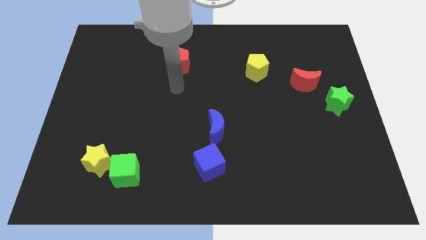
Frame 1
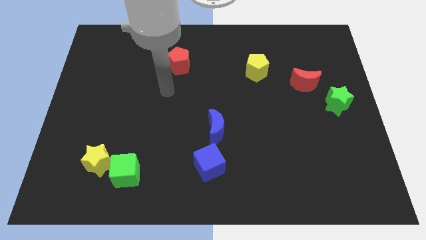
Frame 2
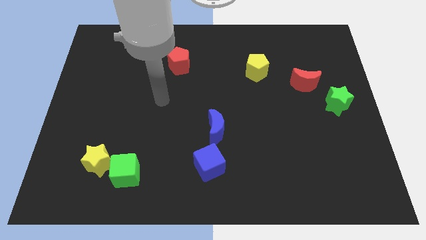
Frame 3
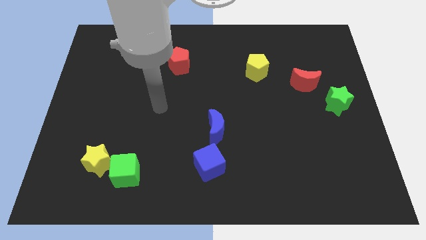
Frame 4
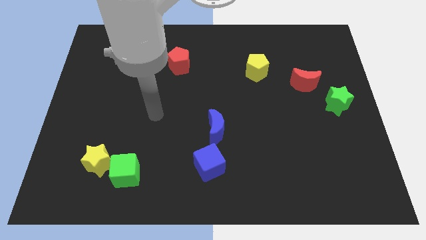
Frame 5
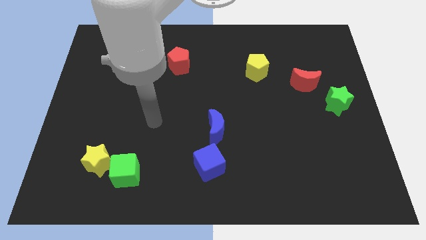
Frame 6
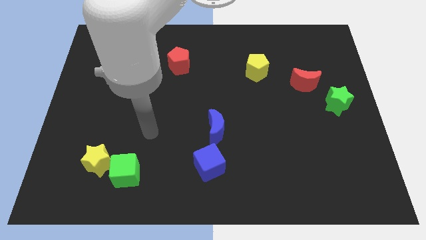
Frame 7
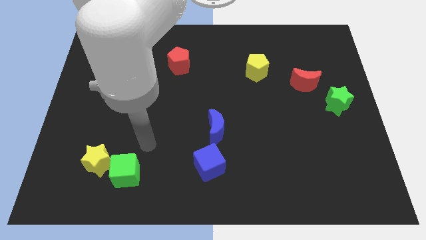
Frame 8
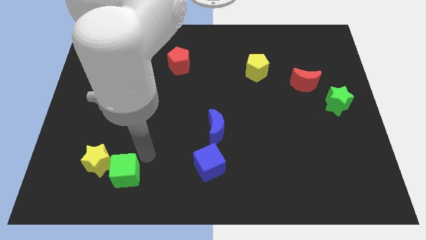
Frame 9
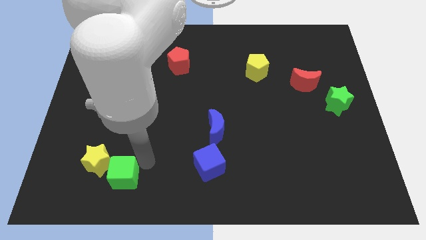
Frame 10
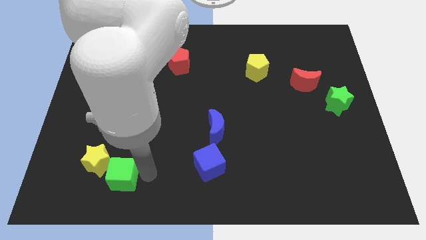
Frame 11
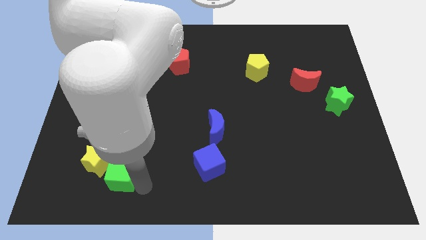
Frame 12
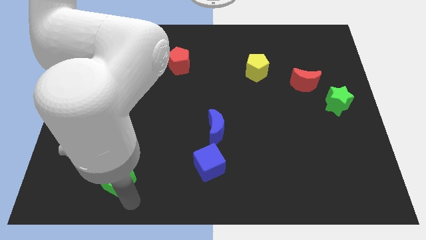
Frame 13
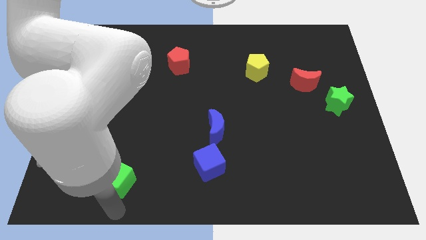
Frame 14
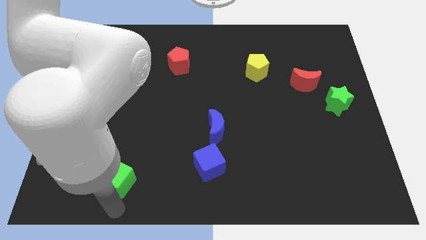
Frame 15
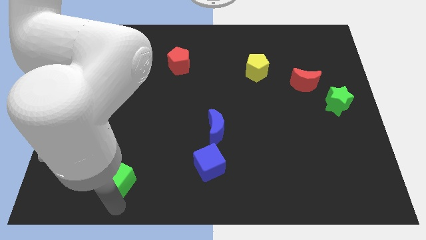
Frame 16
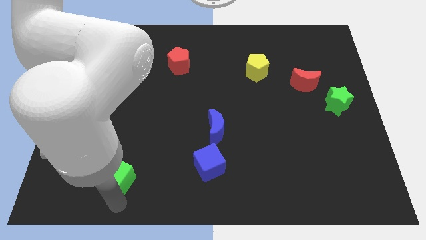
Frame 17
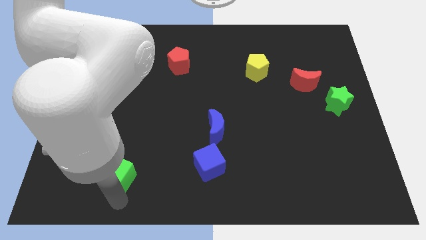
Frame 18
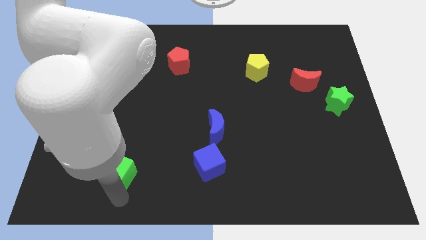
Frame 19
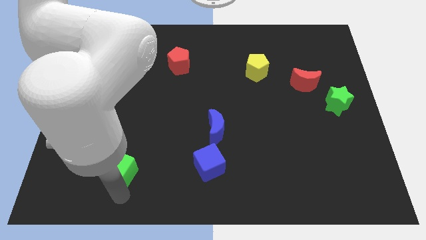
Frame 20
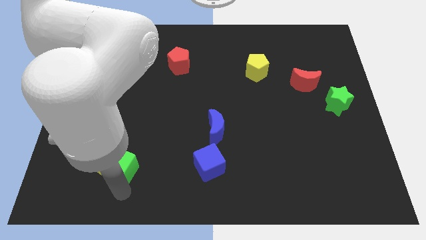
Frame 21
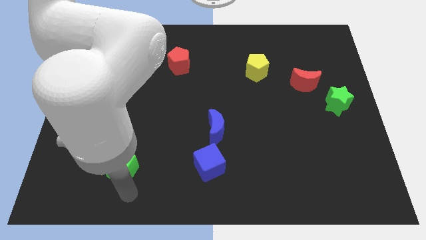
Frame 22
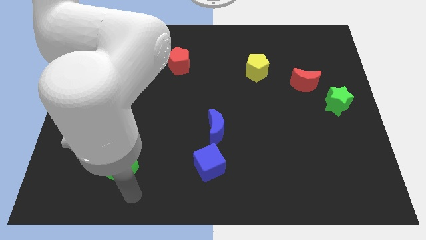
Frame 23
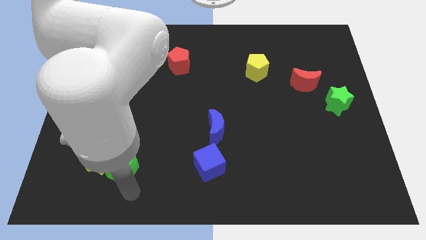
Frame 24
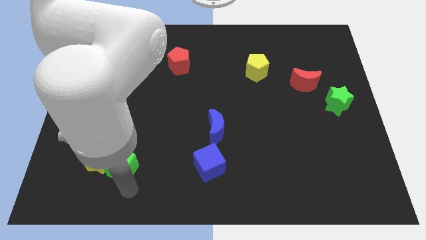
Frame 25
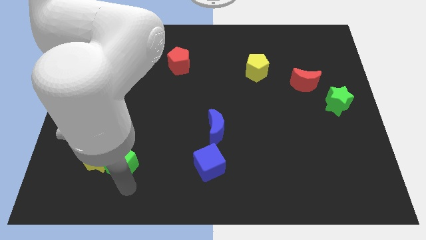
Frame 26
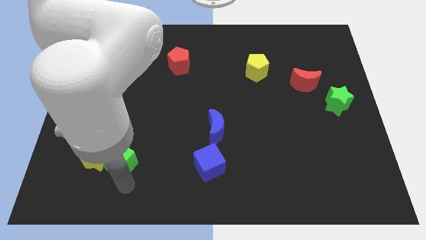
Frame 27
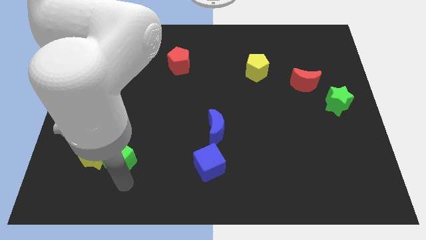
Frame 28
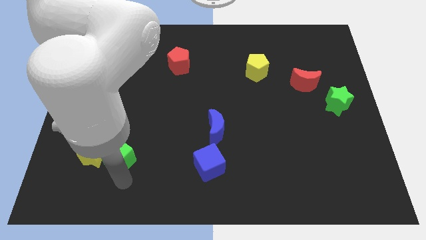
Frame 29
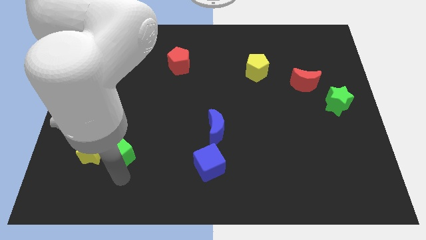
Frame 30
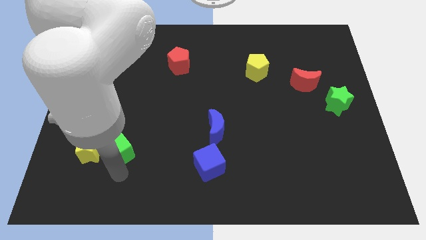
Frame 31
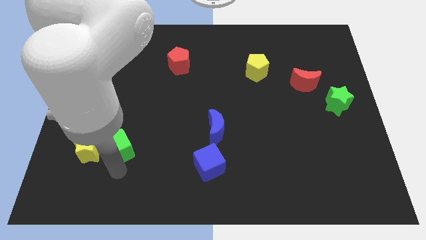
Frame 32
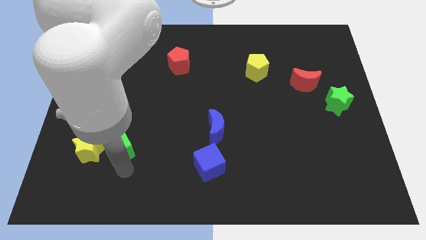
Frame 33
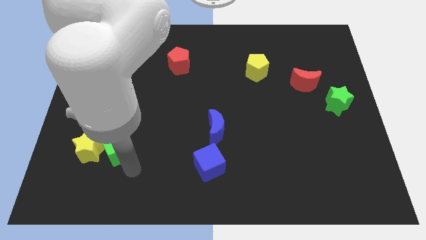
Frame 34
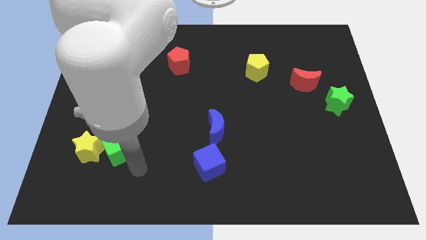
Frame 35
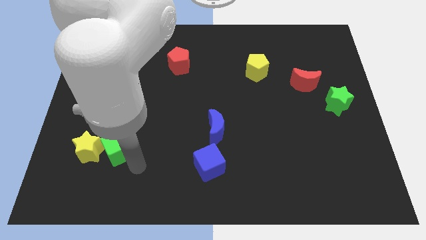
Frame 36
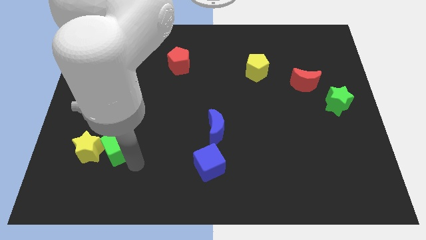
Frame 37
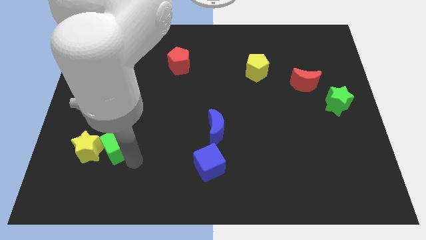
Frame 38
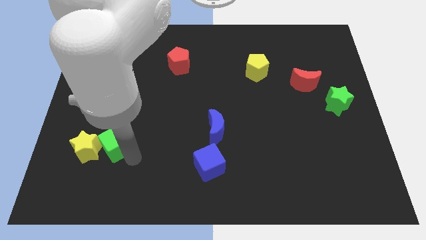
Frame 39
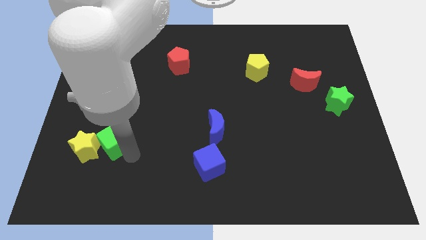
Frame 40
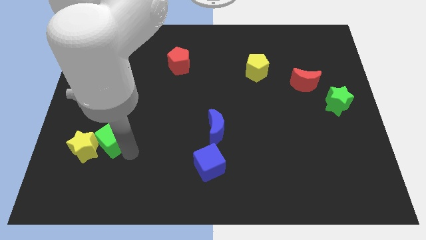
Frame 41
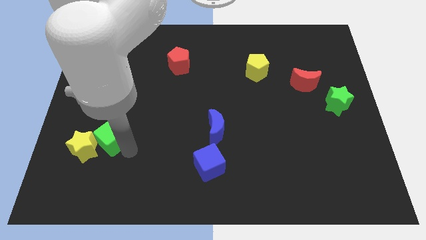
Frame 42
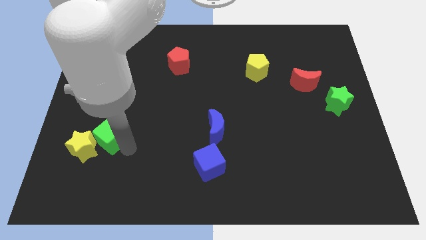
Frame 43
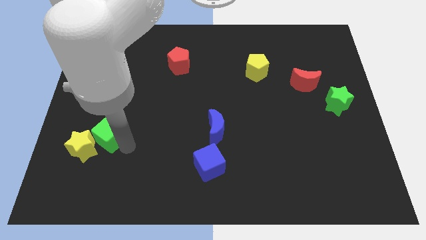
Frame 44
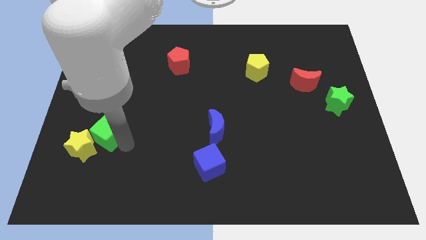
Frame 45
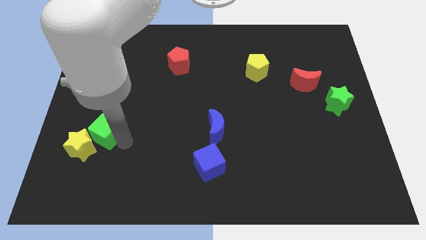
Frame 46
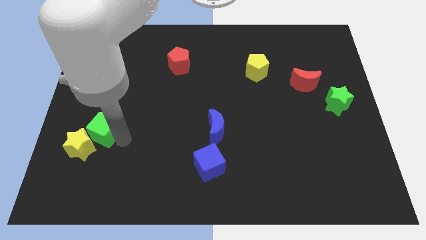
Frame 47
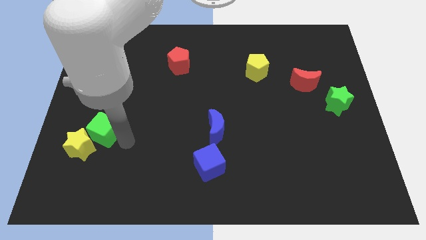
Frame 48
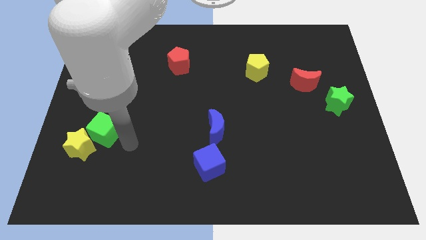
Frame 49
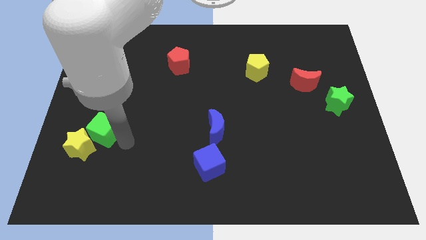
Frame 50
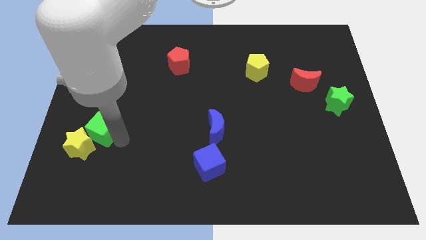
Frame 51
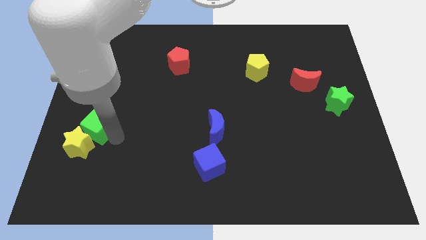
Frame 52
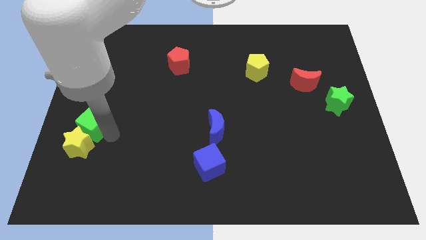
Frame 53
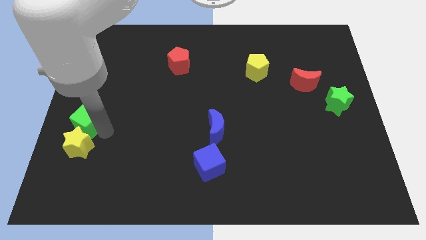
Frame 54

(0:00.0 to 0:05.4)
put the green cube to the left side
